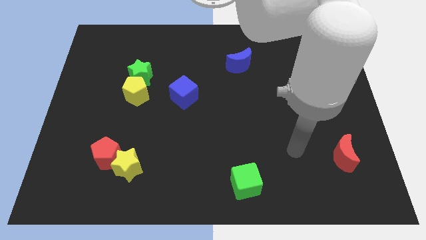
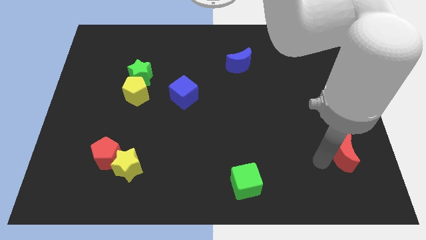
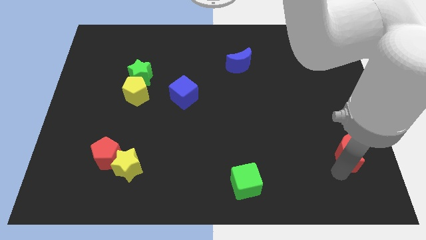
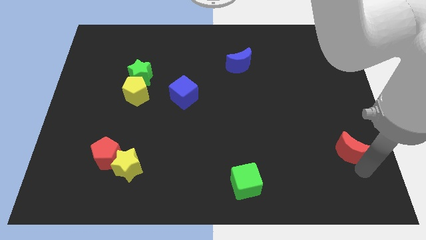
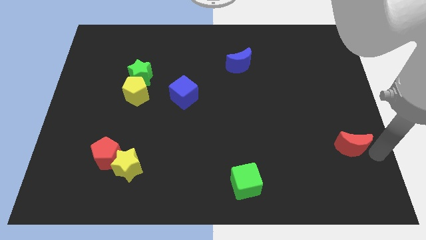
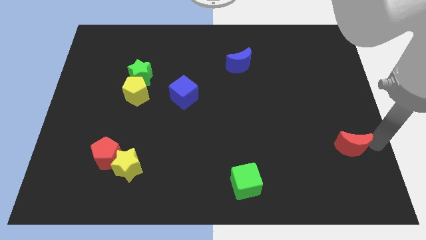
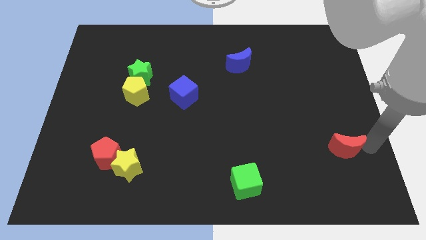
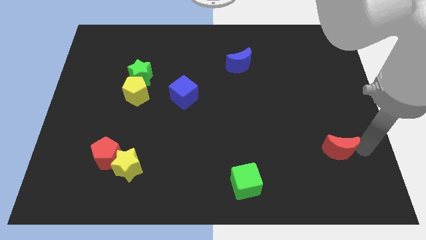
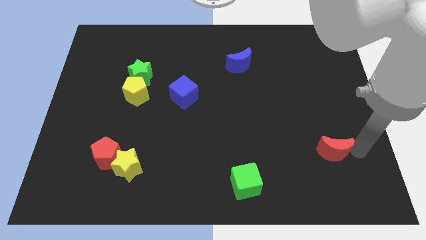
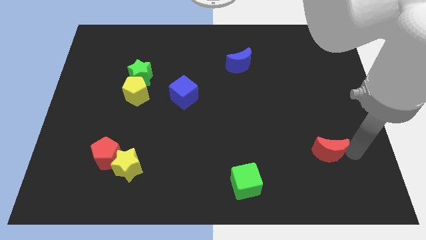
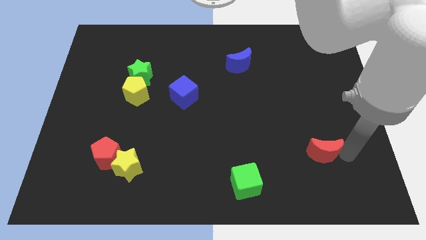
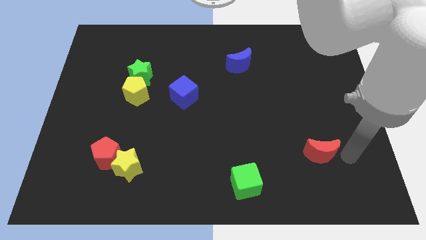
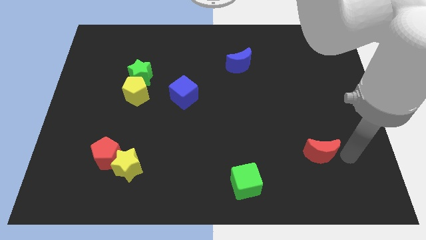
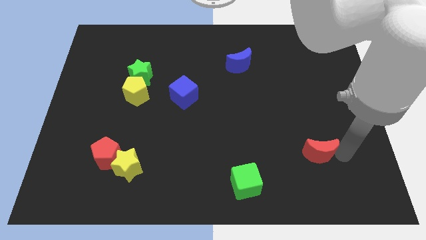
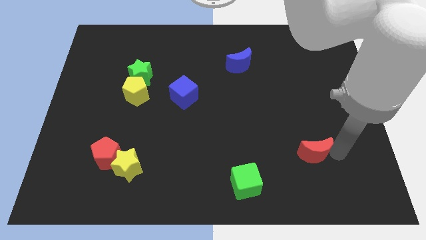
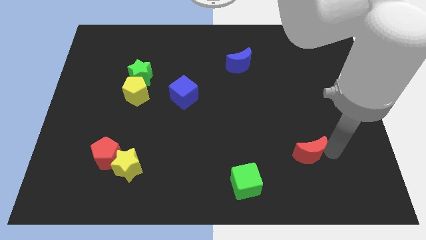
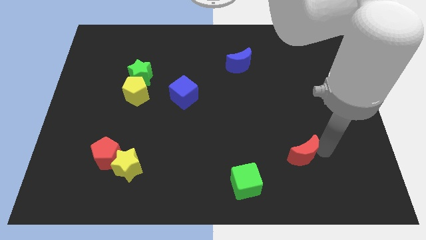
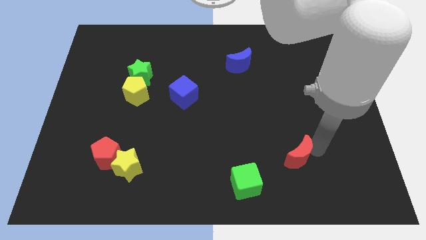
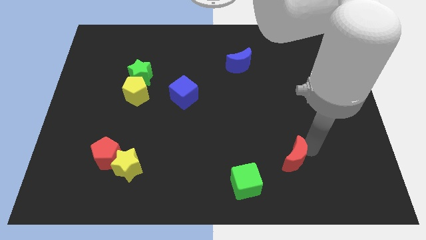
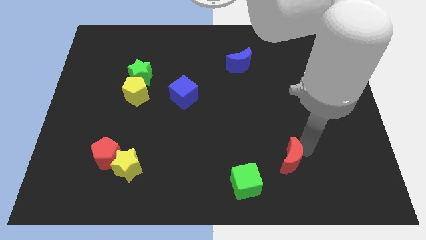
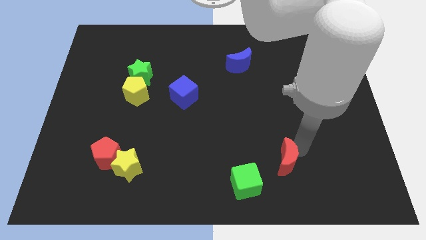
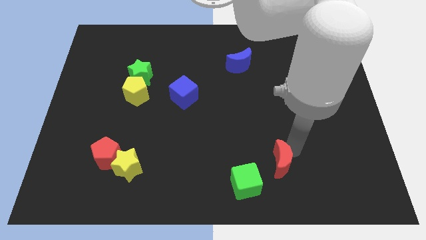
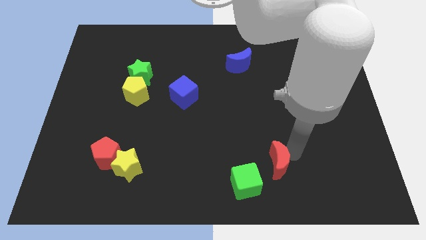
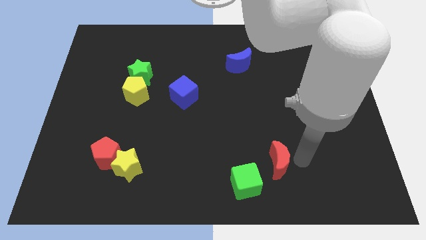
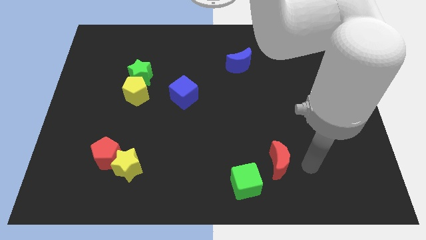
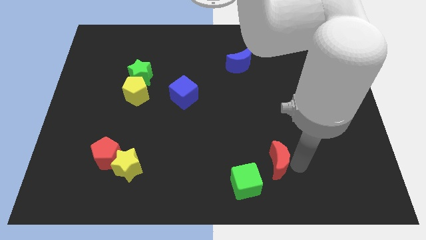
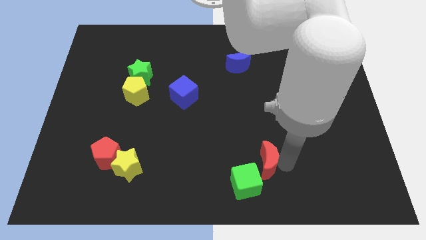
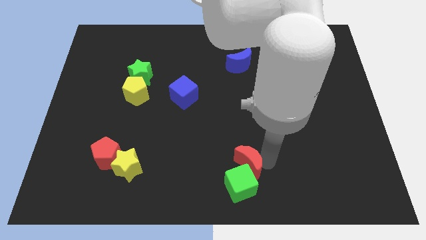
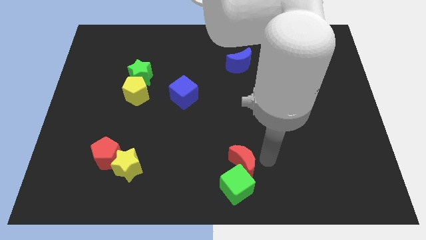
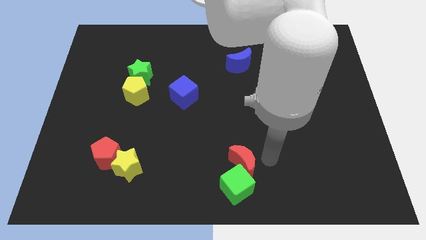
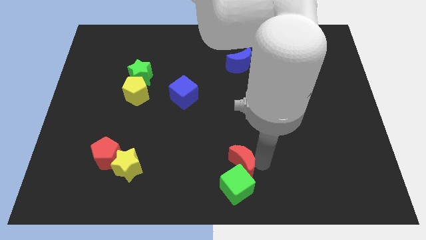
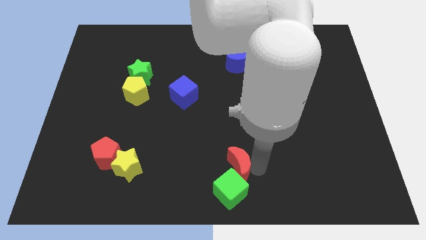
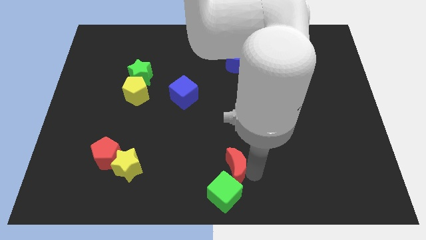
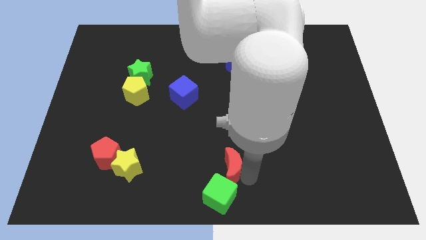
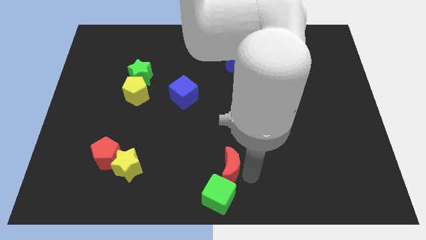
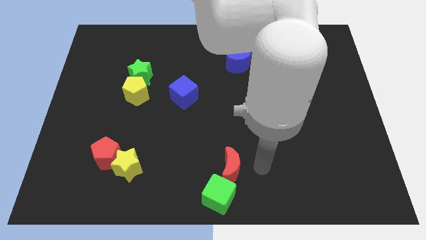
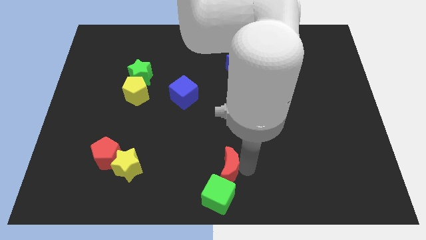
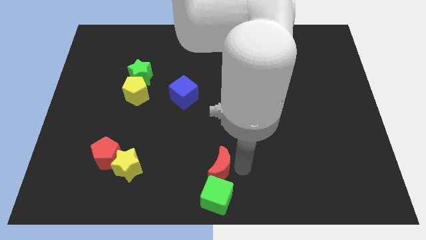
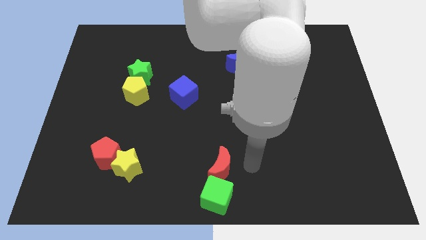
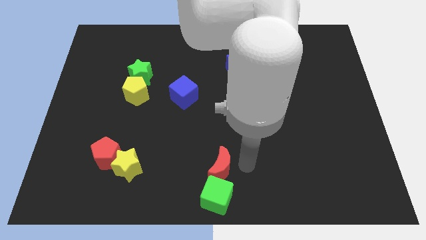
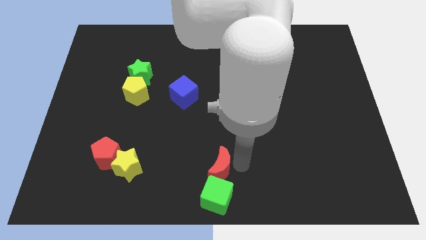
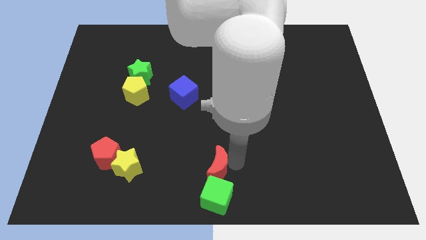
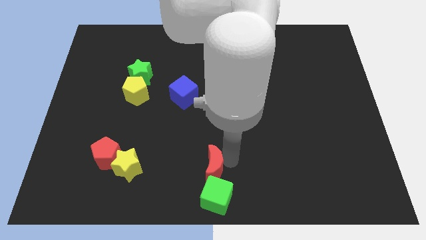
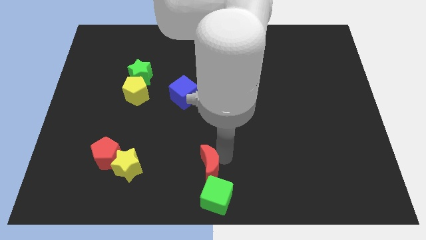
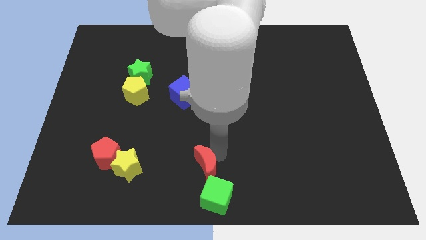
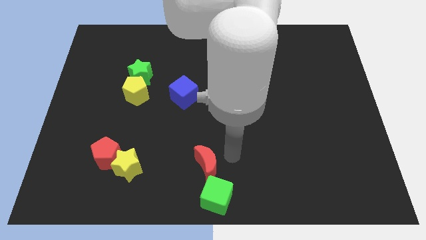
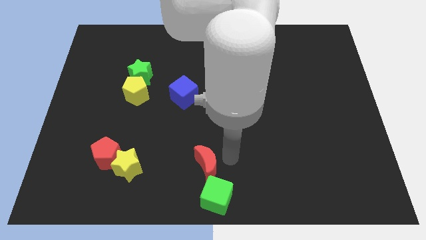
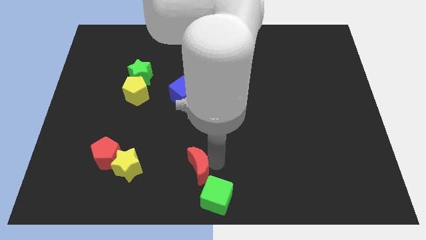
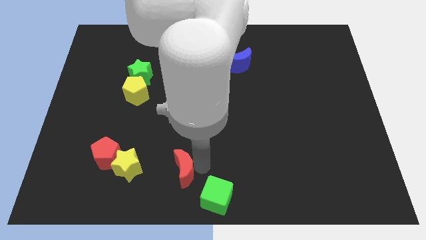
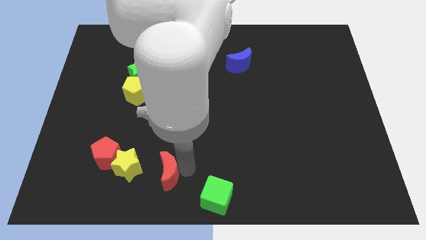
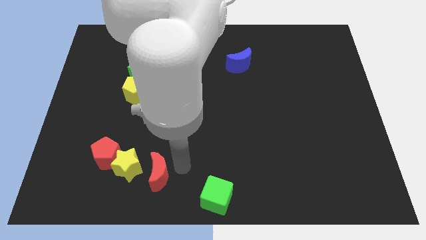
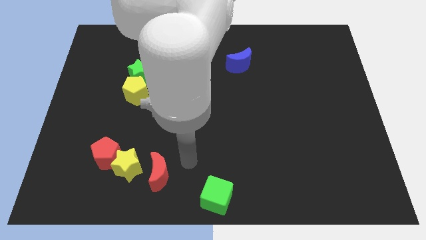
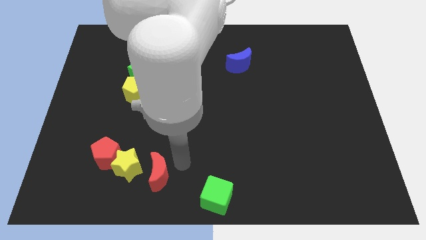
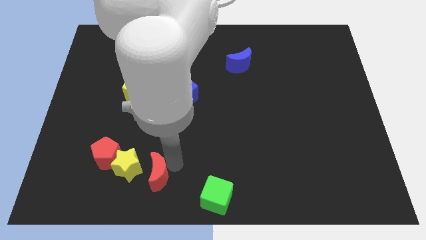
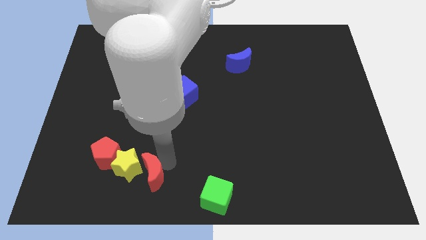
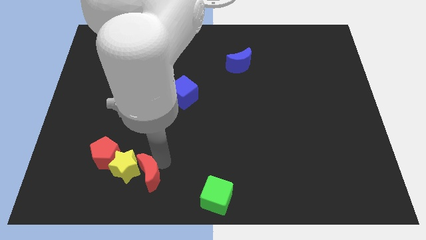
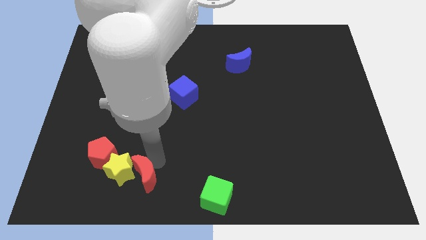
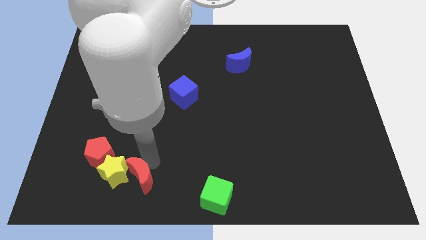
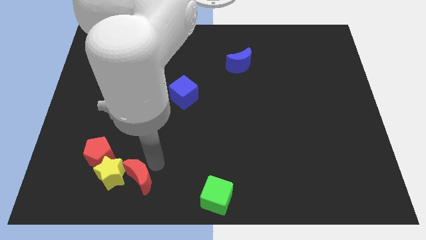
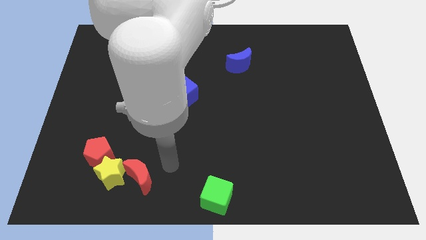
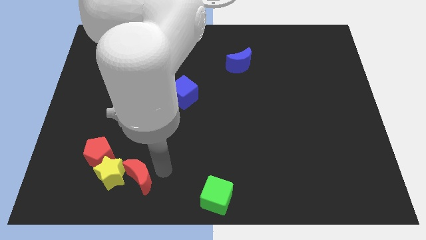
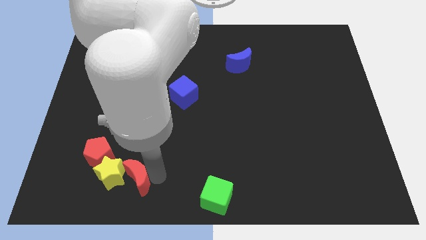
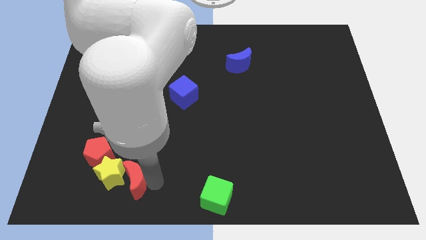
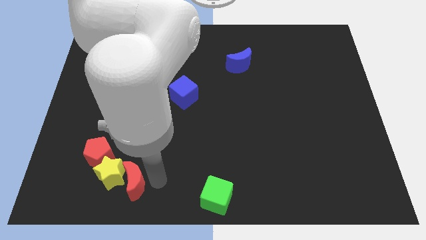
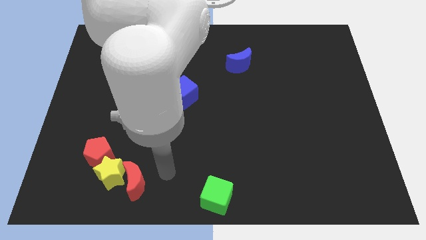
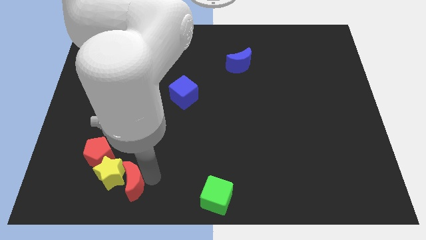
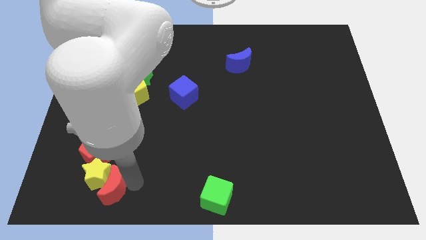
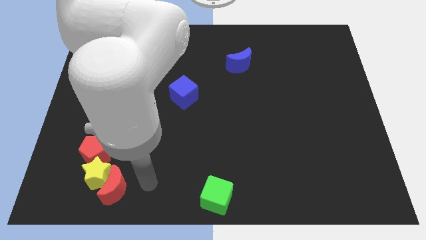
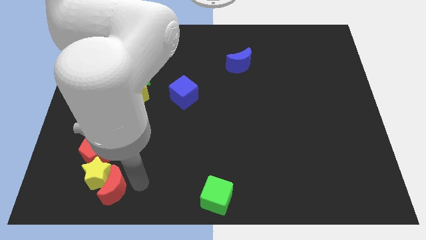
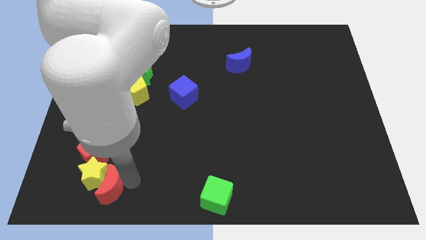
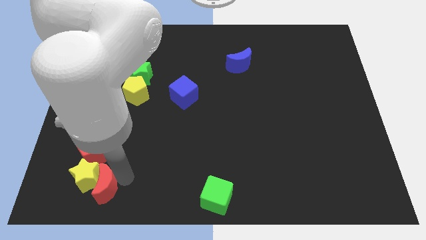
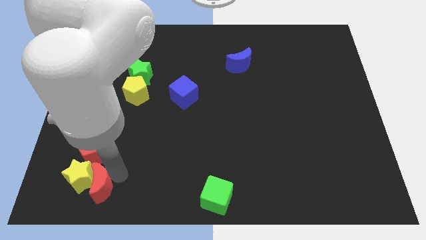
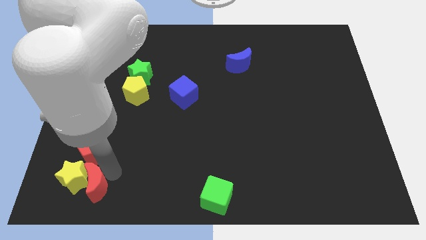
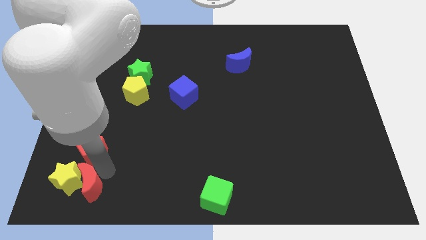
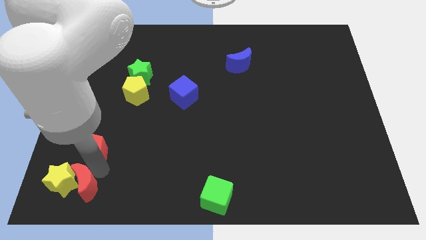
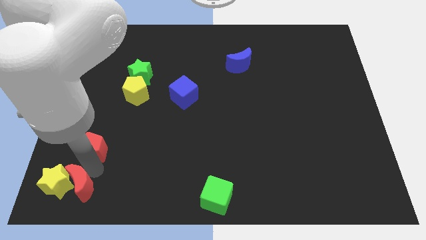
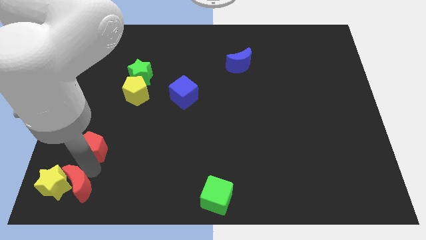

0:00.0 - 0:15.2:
put the red moon to the bottom left of the board
